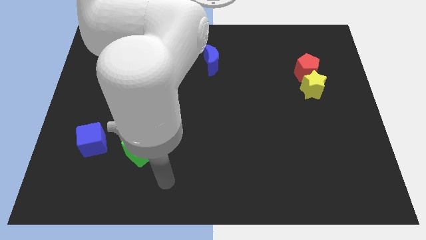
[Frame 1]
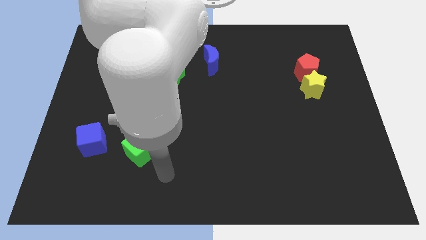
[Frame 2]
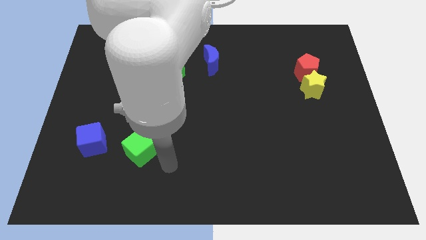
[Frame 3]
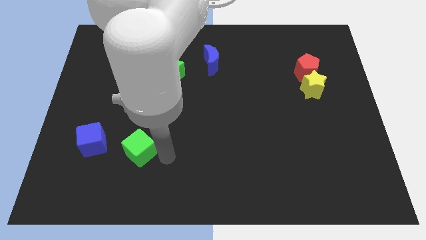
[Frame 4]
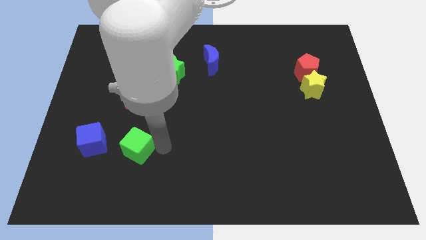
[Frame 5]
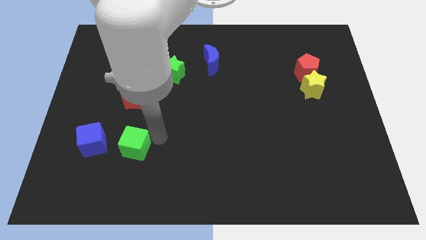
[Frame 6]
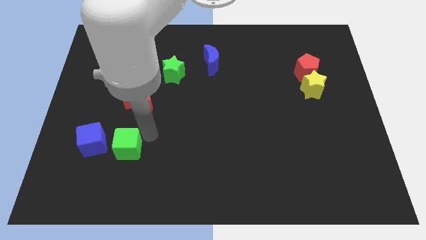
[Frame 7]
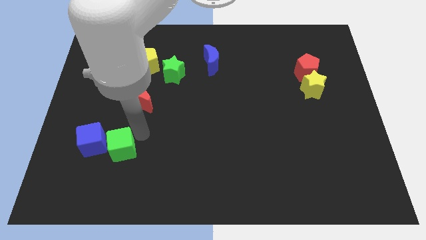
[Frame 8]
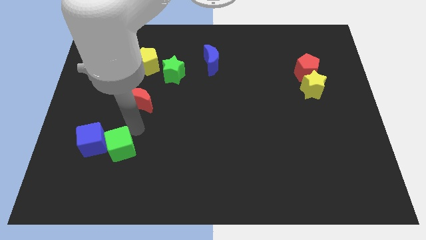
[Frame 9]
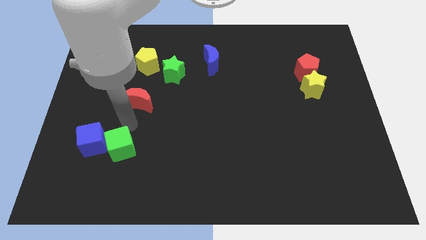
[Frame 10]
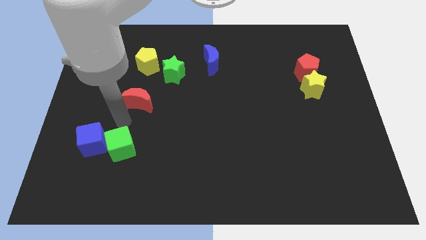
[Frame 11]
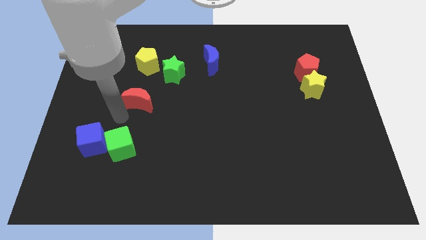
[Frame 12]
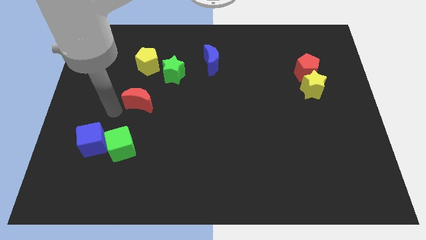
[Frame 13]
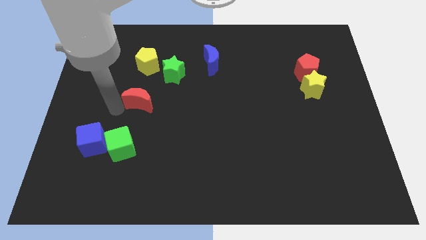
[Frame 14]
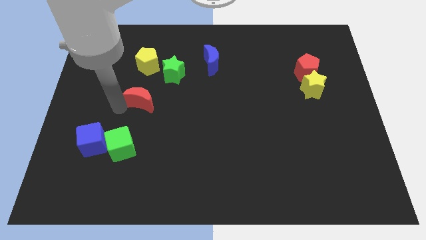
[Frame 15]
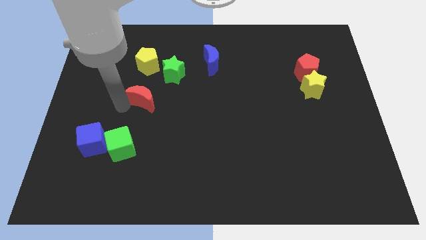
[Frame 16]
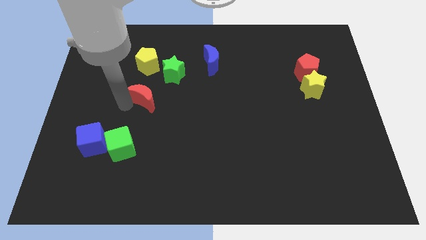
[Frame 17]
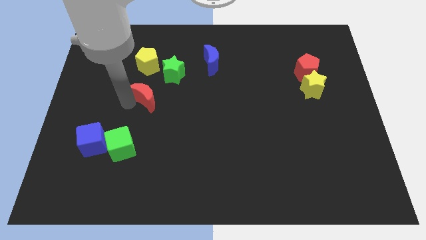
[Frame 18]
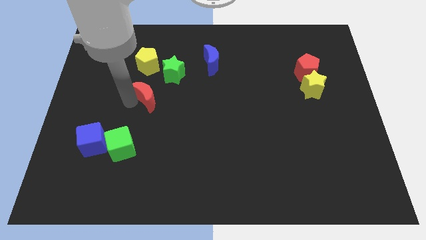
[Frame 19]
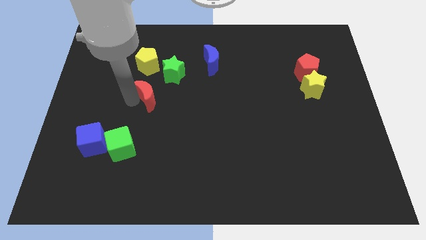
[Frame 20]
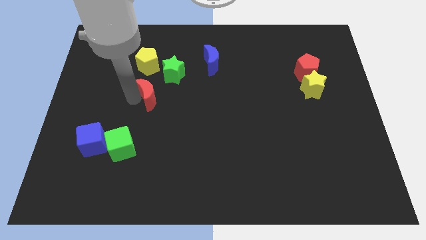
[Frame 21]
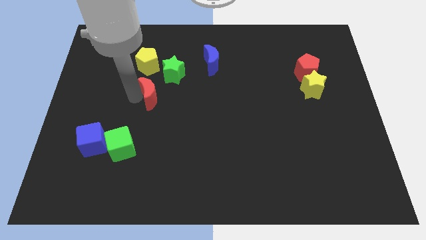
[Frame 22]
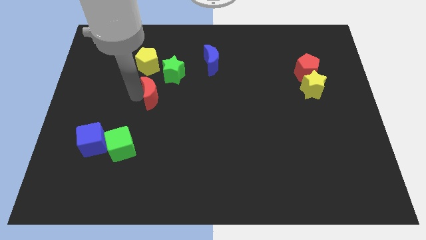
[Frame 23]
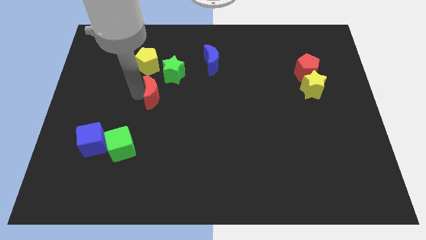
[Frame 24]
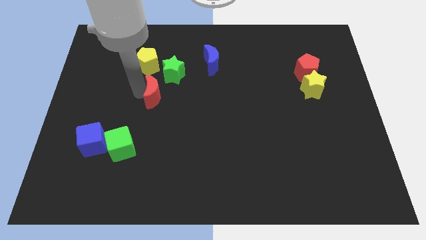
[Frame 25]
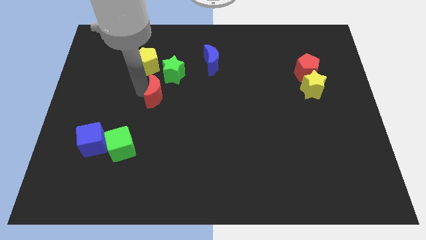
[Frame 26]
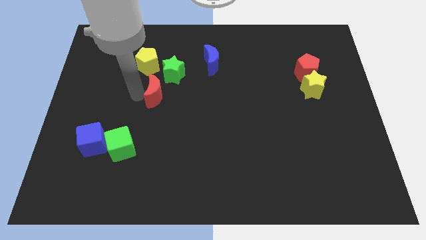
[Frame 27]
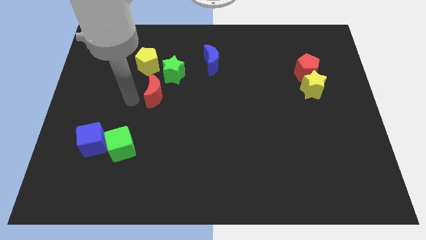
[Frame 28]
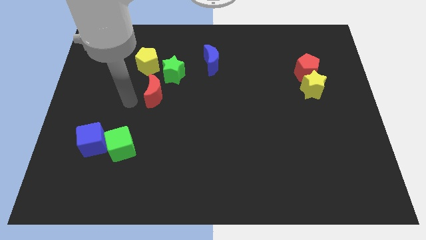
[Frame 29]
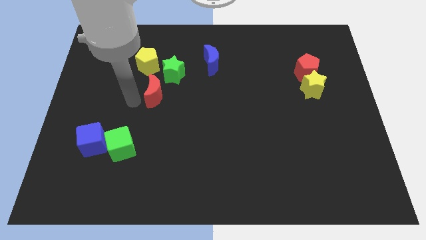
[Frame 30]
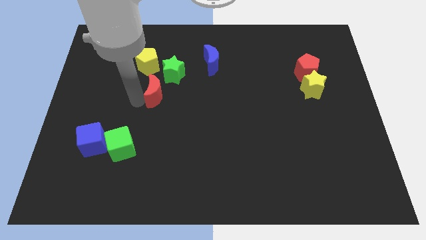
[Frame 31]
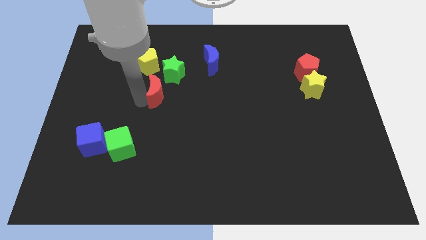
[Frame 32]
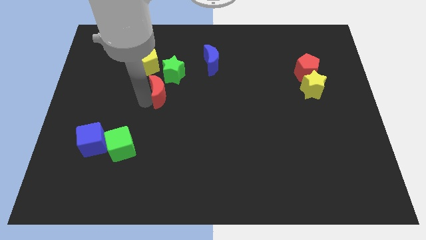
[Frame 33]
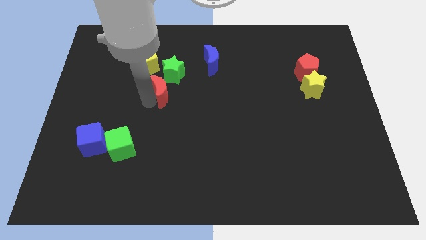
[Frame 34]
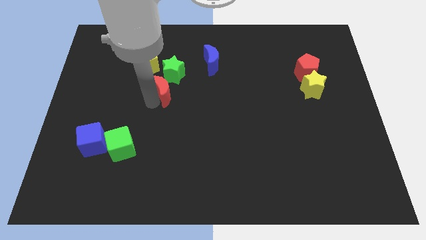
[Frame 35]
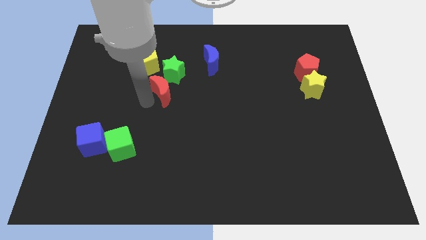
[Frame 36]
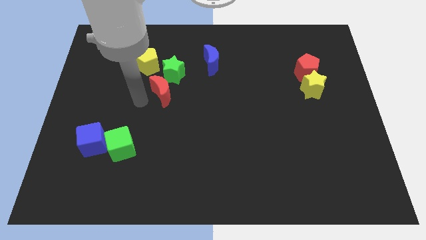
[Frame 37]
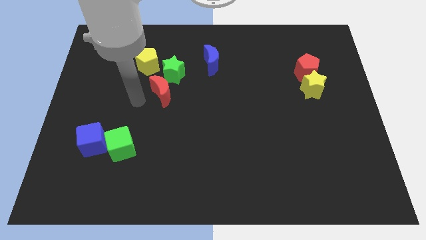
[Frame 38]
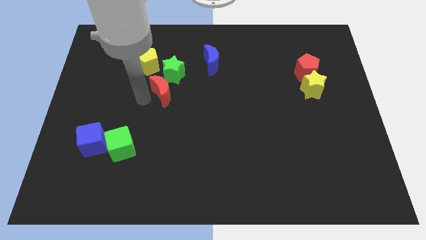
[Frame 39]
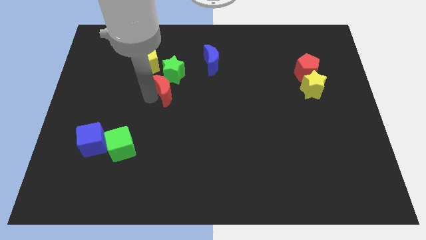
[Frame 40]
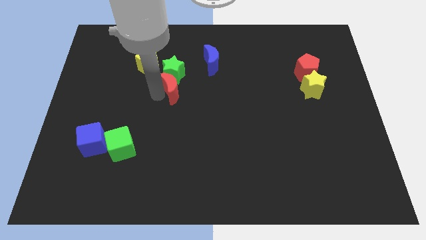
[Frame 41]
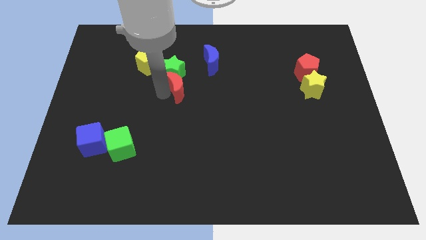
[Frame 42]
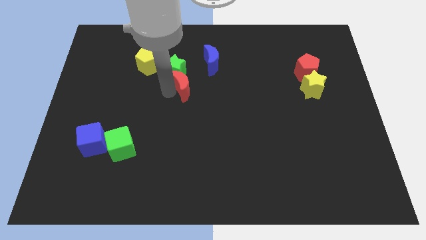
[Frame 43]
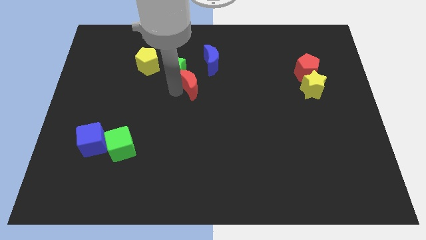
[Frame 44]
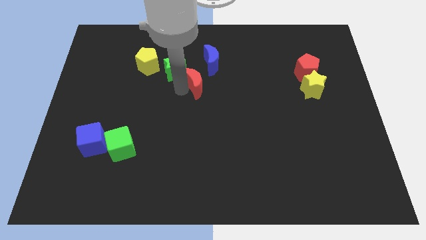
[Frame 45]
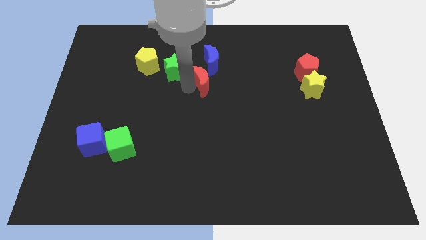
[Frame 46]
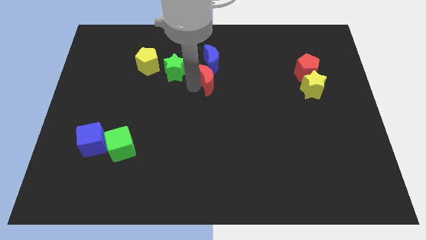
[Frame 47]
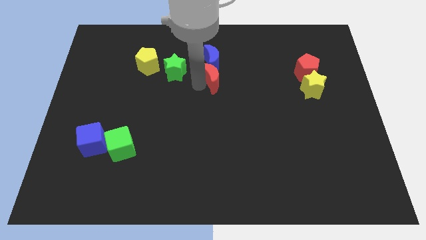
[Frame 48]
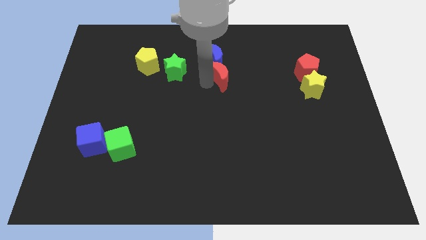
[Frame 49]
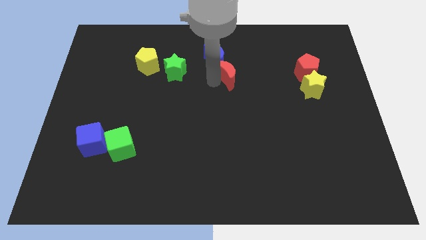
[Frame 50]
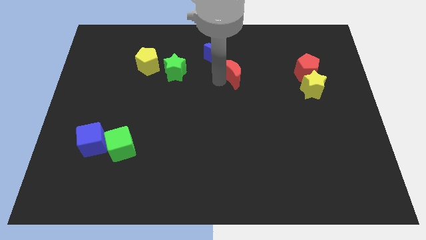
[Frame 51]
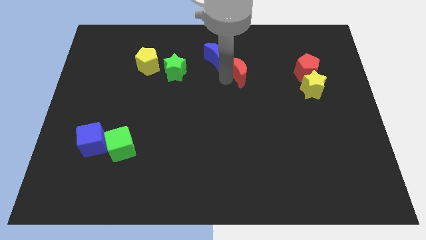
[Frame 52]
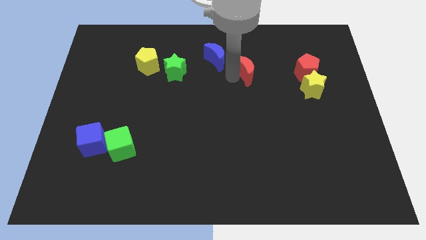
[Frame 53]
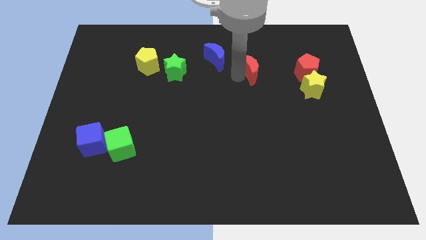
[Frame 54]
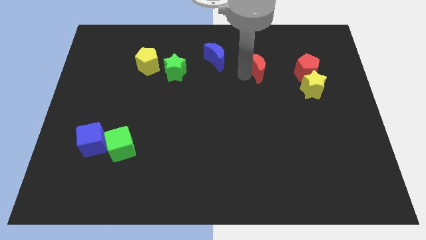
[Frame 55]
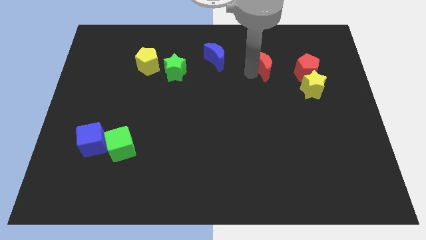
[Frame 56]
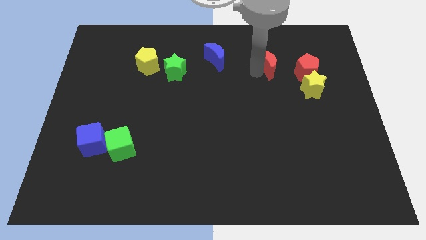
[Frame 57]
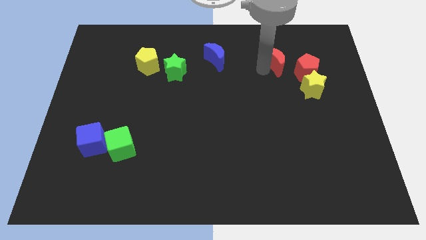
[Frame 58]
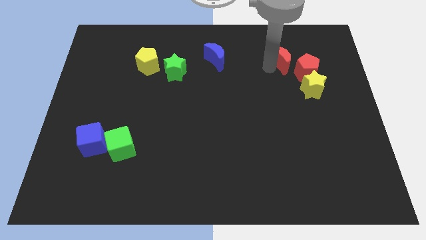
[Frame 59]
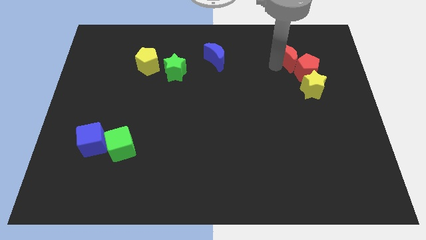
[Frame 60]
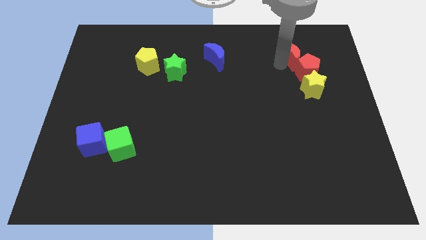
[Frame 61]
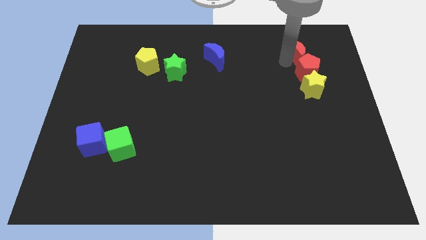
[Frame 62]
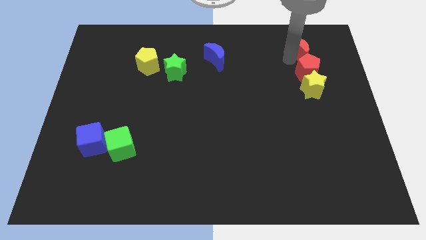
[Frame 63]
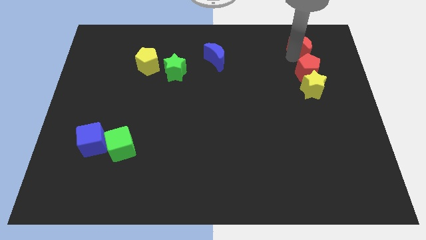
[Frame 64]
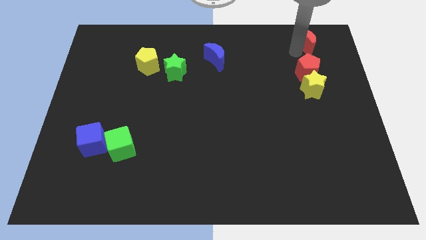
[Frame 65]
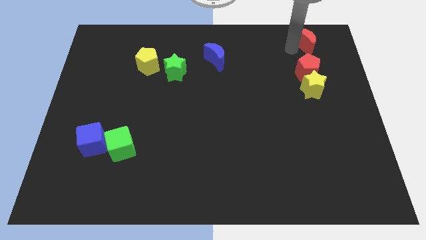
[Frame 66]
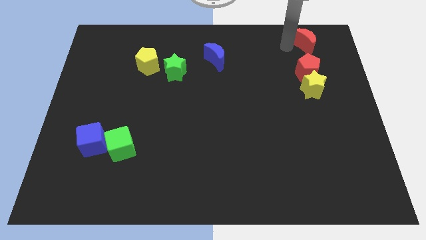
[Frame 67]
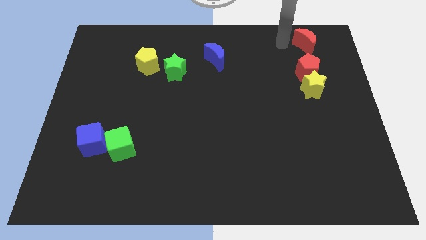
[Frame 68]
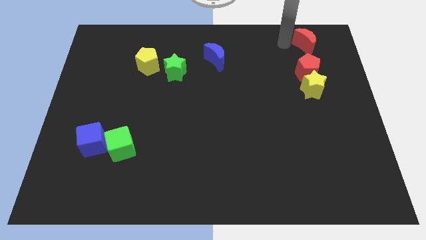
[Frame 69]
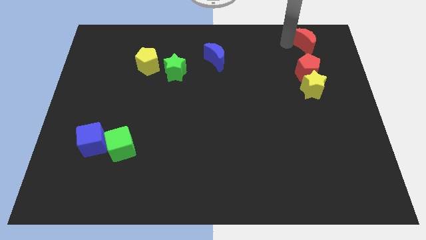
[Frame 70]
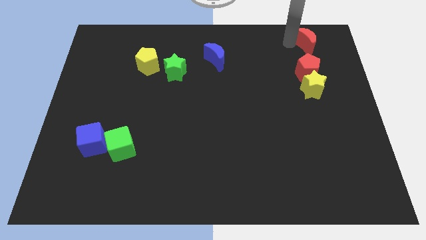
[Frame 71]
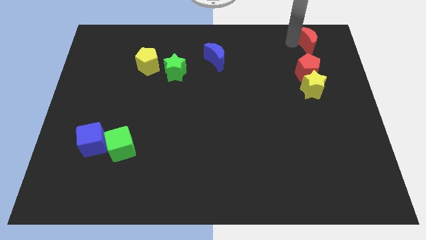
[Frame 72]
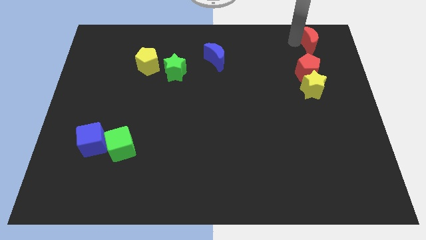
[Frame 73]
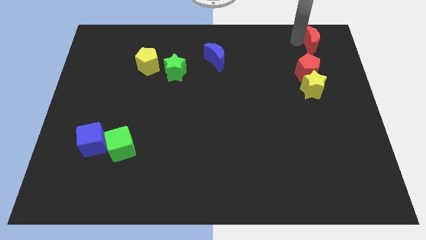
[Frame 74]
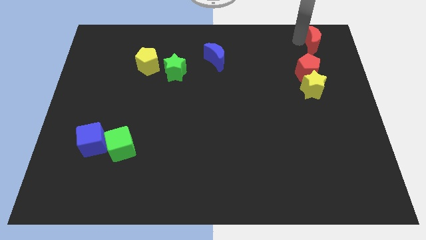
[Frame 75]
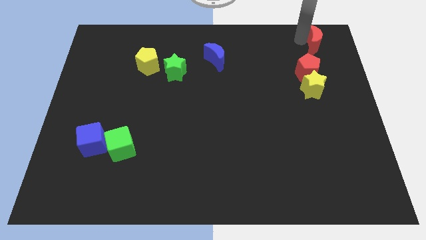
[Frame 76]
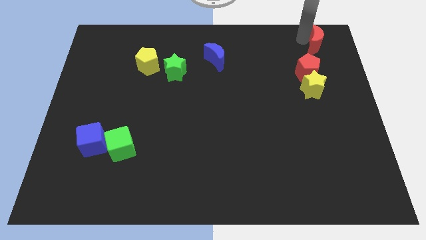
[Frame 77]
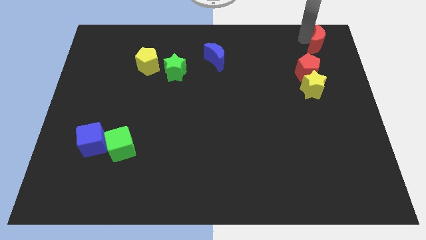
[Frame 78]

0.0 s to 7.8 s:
push the red moon to the top right of the board
